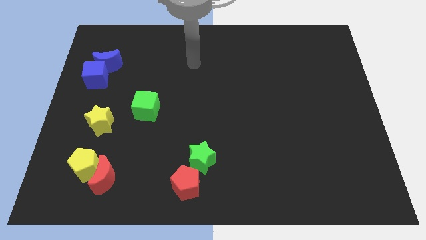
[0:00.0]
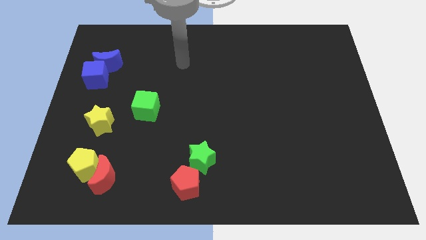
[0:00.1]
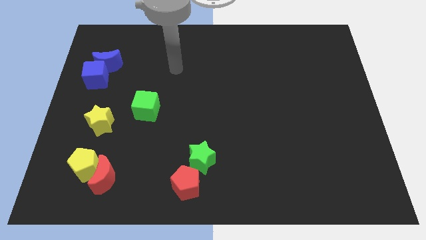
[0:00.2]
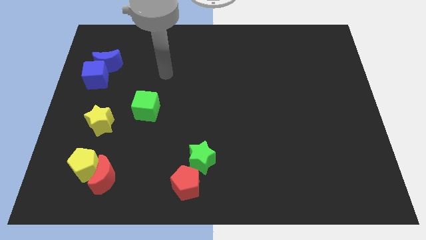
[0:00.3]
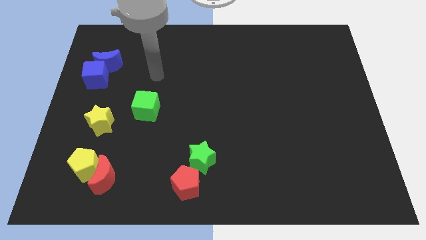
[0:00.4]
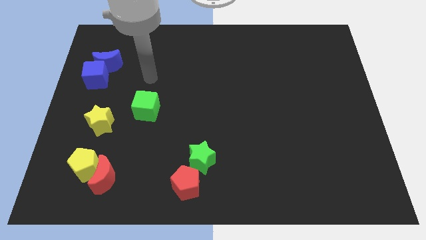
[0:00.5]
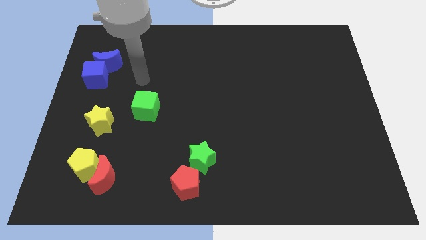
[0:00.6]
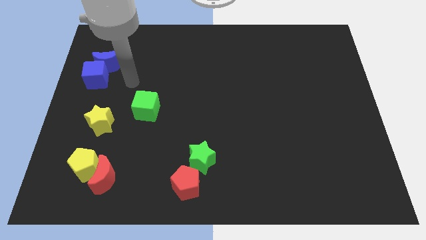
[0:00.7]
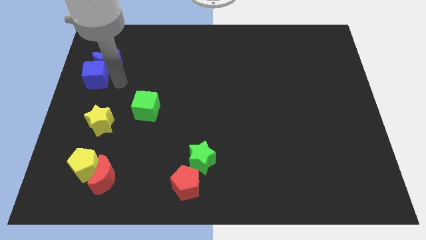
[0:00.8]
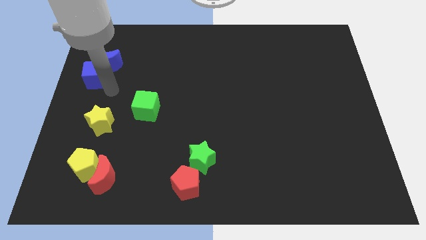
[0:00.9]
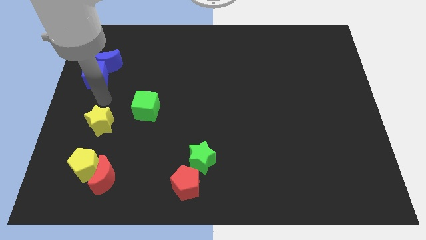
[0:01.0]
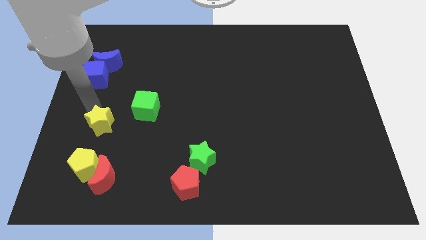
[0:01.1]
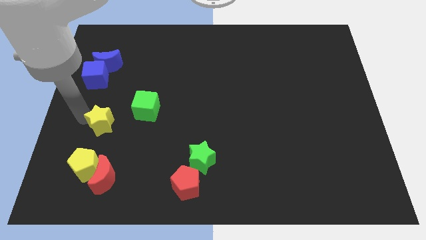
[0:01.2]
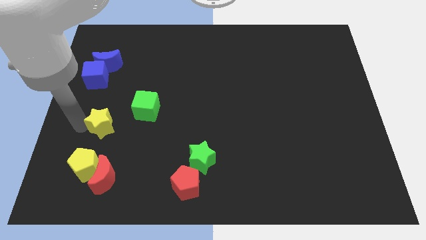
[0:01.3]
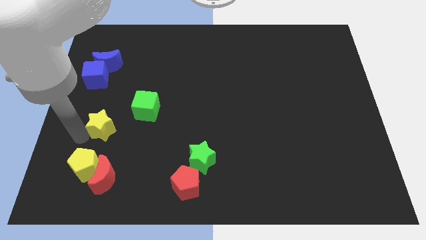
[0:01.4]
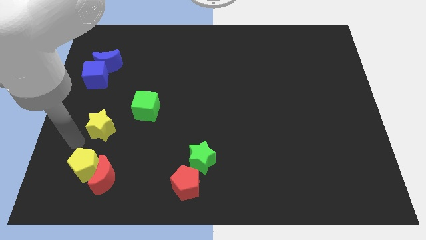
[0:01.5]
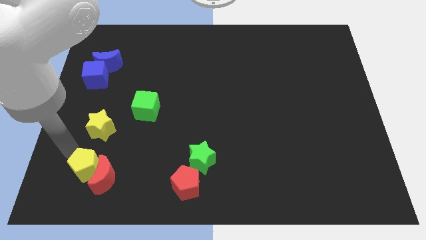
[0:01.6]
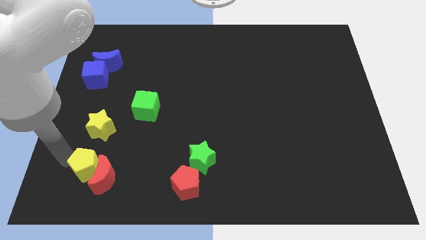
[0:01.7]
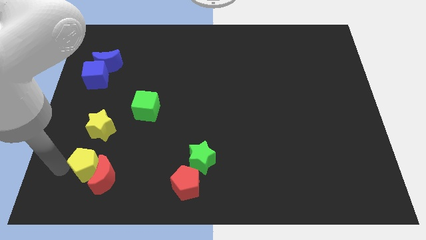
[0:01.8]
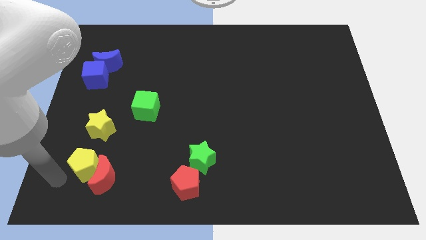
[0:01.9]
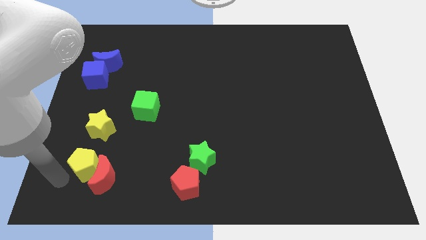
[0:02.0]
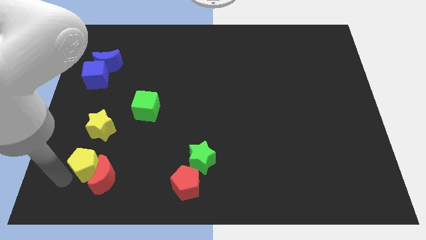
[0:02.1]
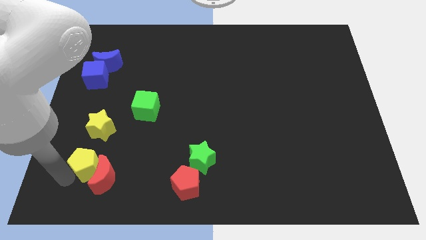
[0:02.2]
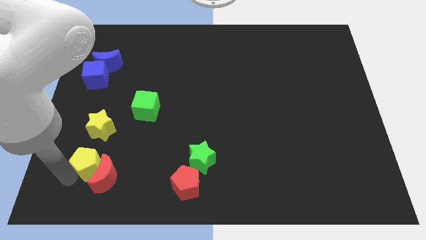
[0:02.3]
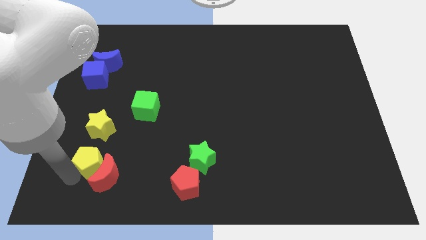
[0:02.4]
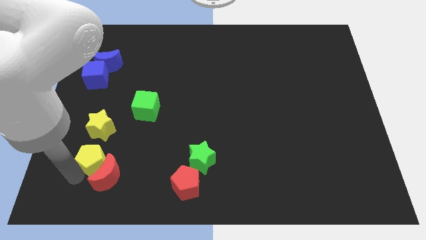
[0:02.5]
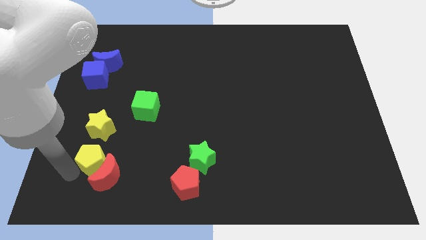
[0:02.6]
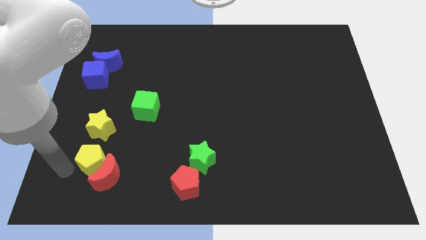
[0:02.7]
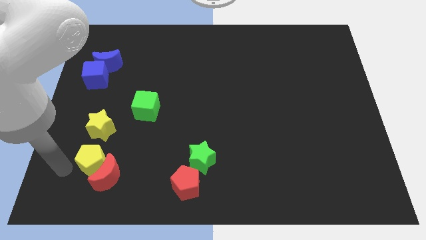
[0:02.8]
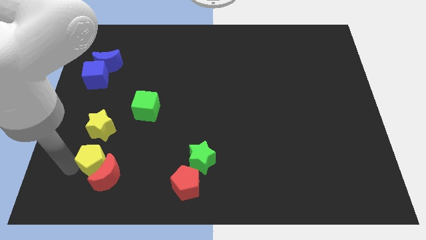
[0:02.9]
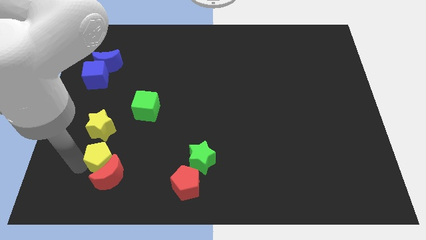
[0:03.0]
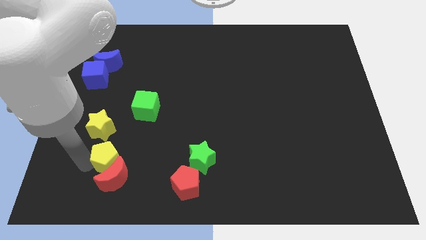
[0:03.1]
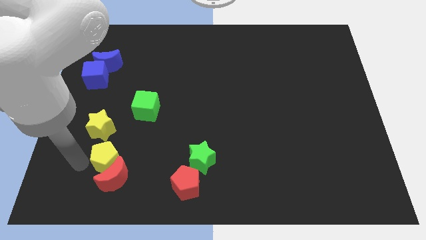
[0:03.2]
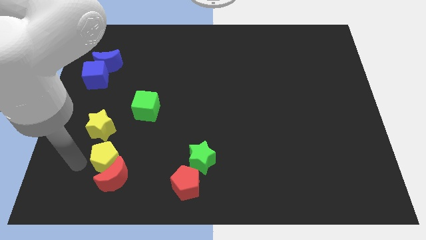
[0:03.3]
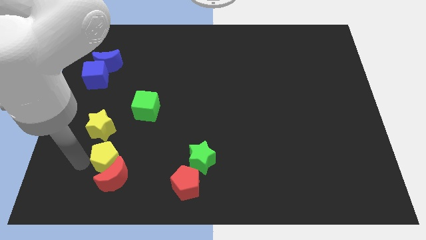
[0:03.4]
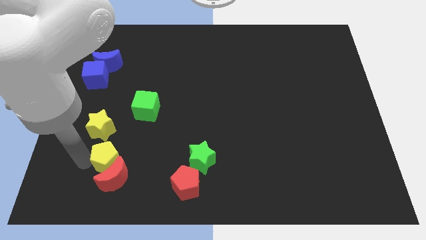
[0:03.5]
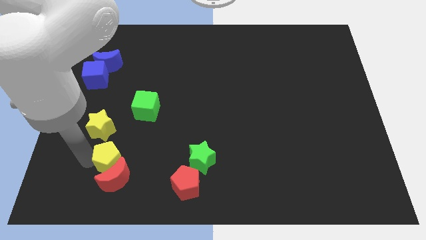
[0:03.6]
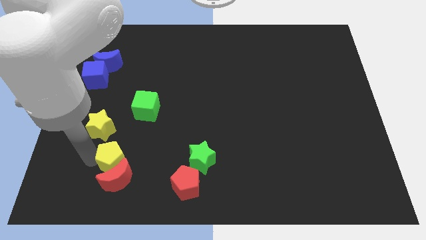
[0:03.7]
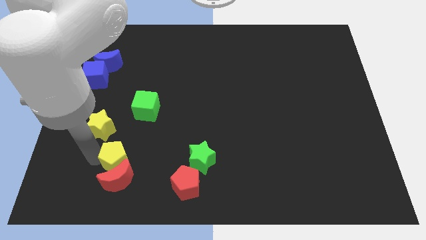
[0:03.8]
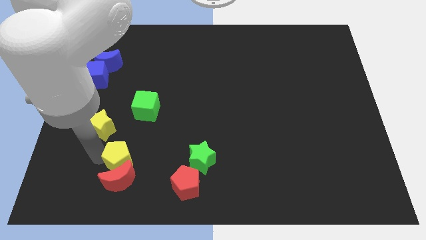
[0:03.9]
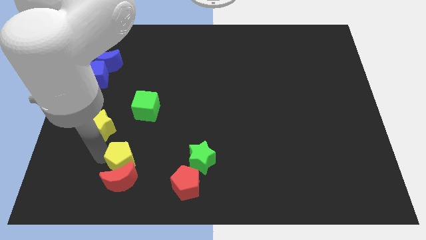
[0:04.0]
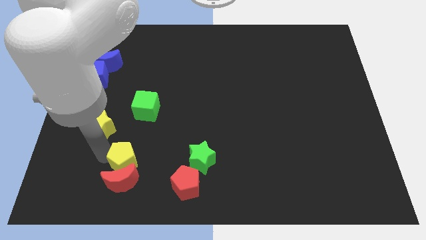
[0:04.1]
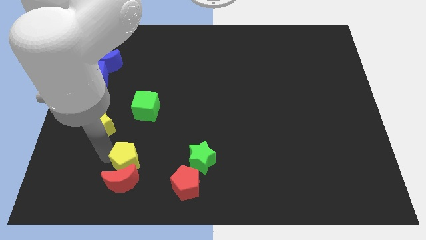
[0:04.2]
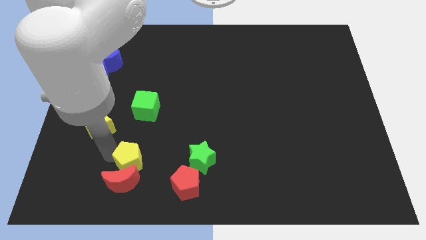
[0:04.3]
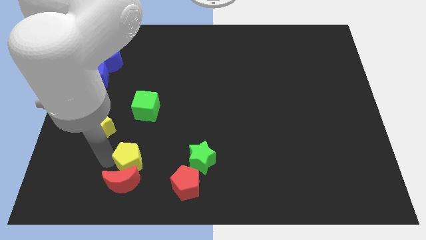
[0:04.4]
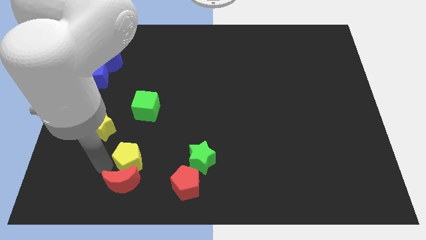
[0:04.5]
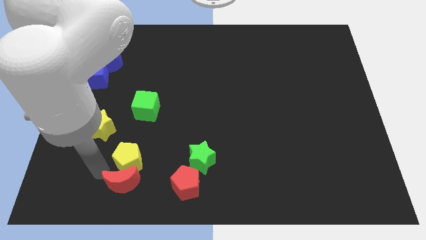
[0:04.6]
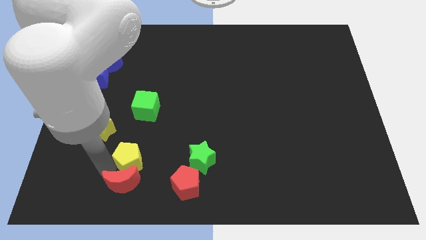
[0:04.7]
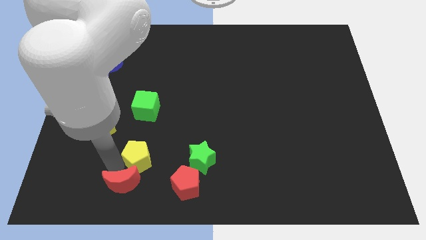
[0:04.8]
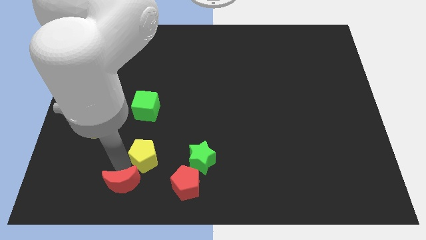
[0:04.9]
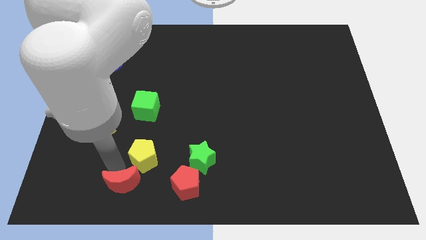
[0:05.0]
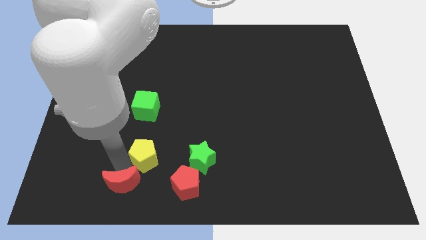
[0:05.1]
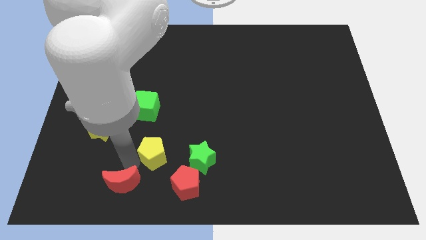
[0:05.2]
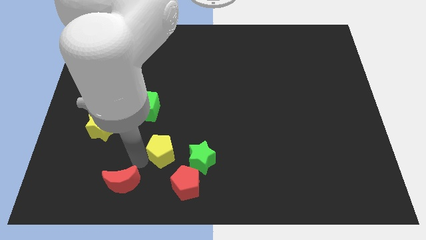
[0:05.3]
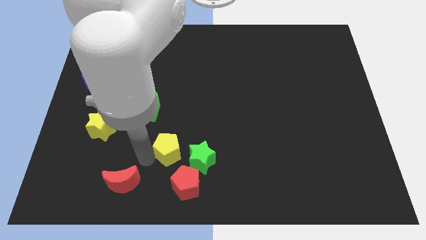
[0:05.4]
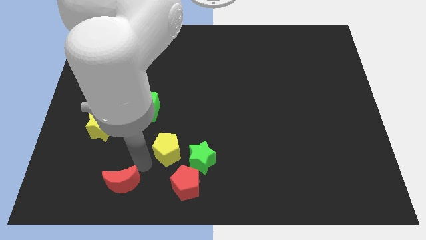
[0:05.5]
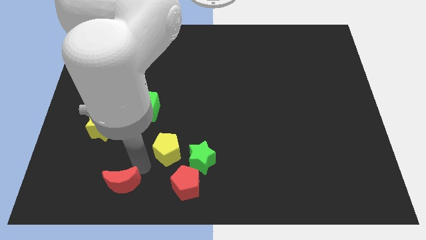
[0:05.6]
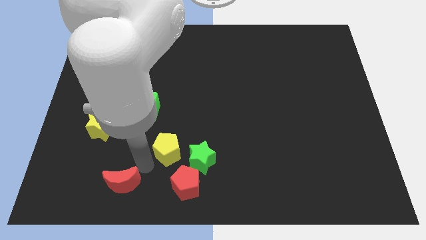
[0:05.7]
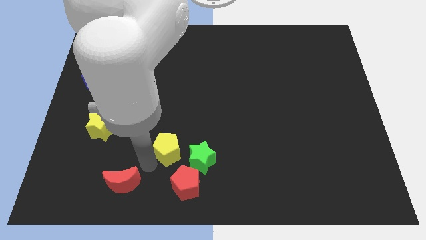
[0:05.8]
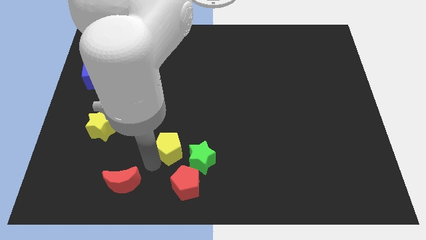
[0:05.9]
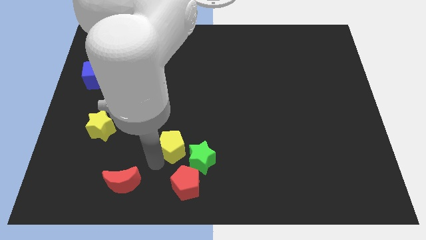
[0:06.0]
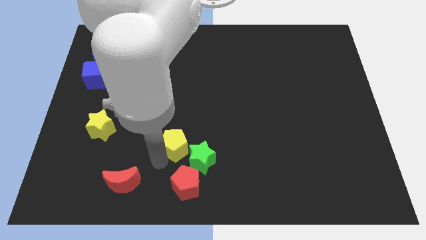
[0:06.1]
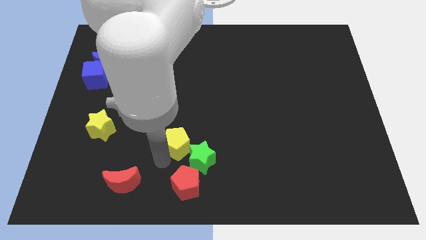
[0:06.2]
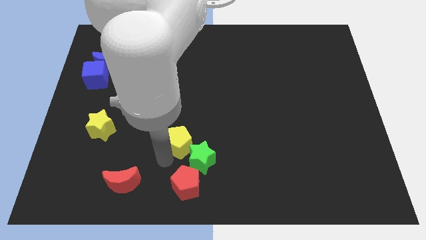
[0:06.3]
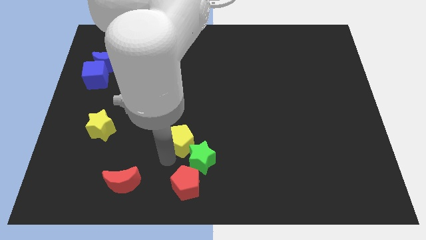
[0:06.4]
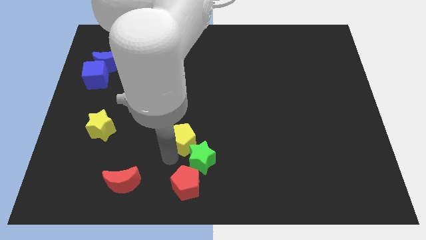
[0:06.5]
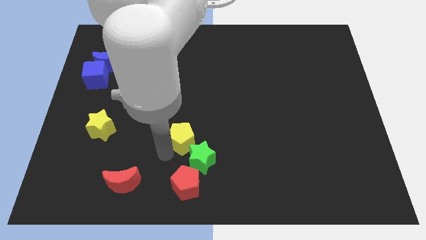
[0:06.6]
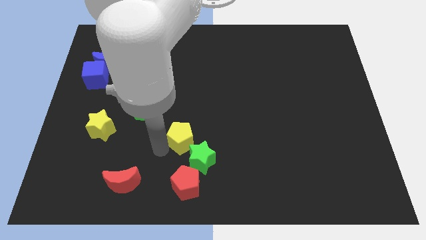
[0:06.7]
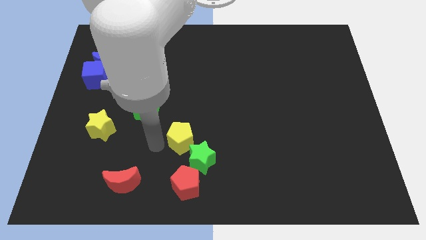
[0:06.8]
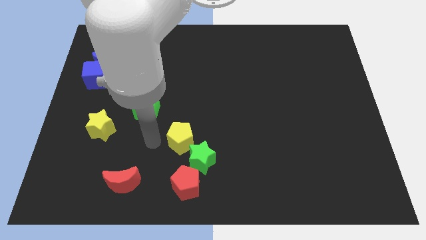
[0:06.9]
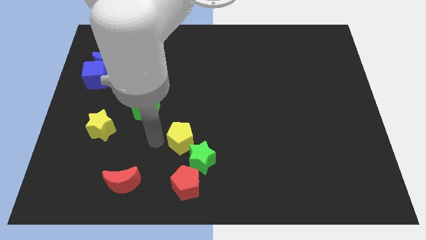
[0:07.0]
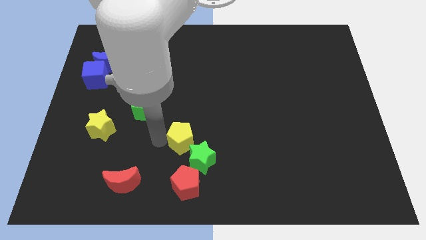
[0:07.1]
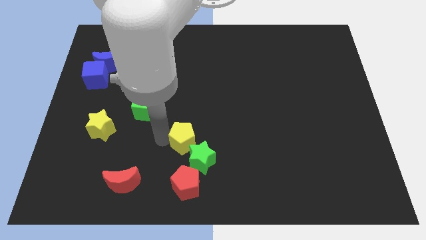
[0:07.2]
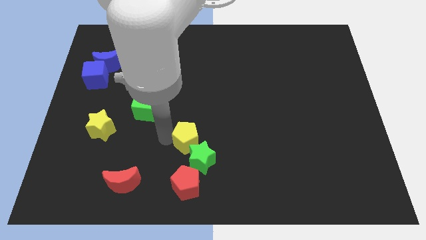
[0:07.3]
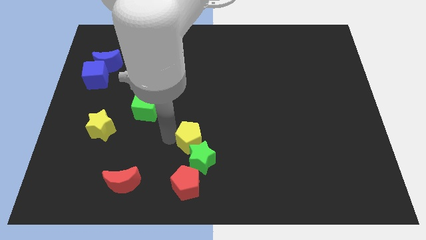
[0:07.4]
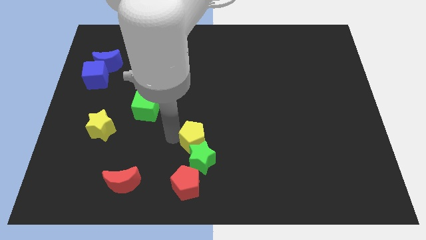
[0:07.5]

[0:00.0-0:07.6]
move the yellow pentagon to the right

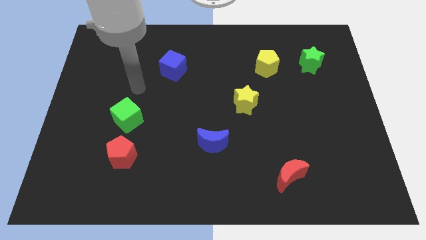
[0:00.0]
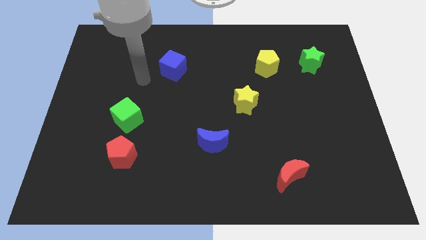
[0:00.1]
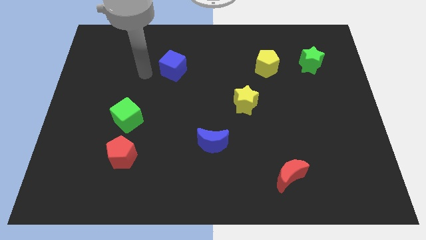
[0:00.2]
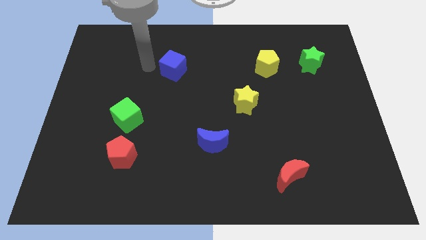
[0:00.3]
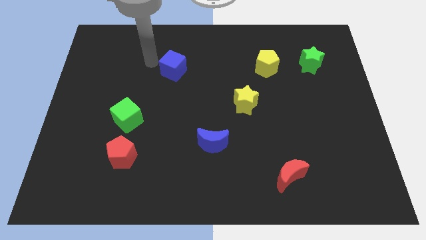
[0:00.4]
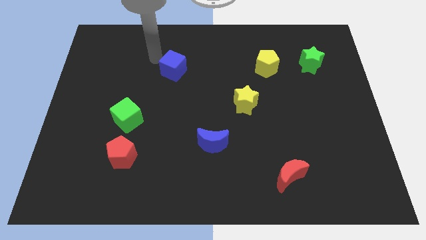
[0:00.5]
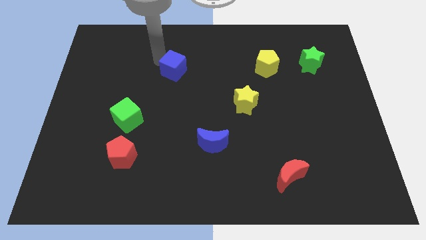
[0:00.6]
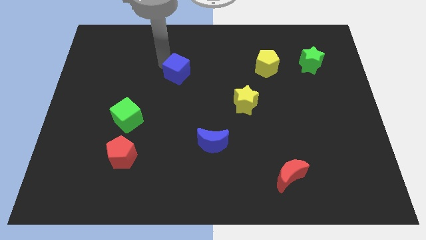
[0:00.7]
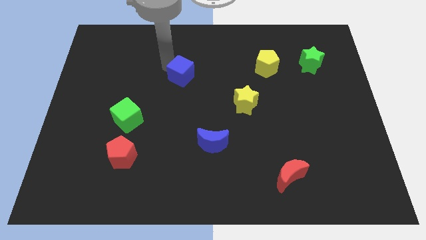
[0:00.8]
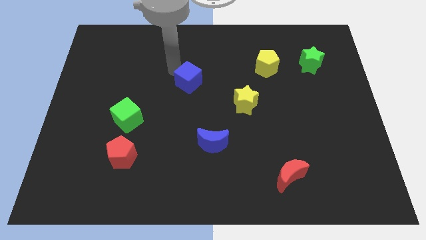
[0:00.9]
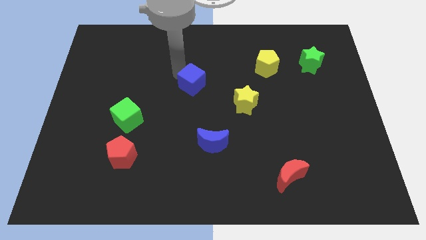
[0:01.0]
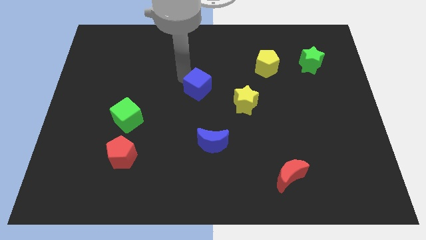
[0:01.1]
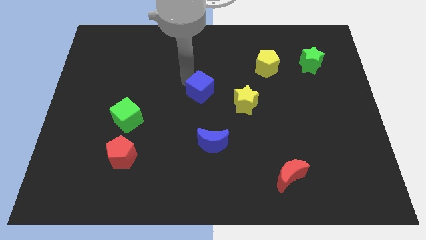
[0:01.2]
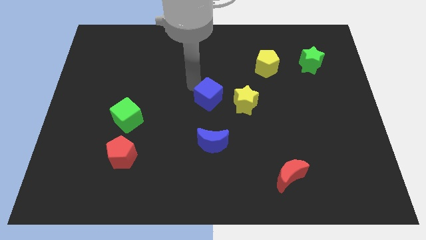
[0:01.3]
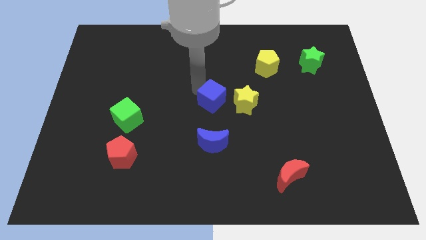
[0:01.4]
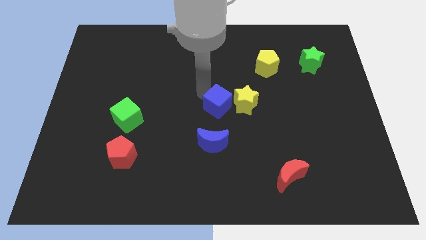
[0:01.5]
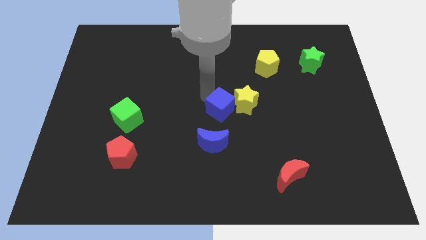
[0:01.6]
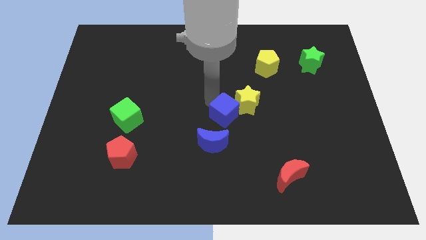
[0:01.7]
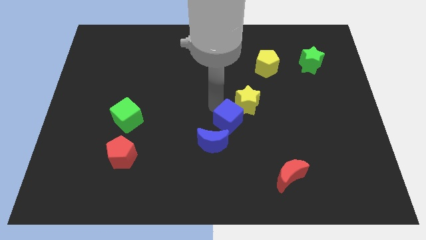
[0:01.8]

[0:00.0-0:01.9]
slide the blue cube downwards and to the right
